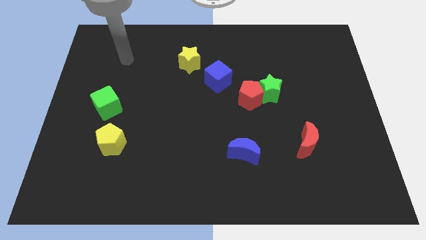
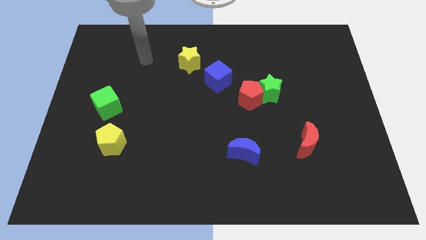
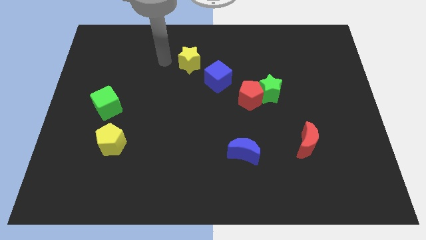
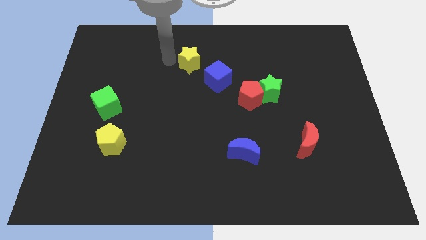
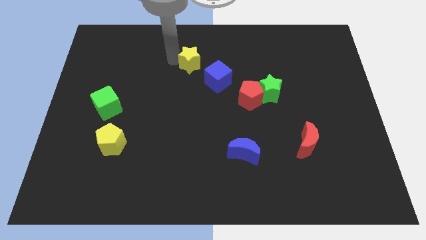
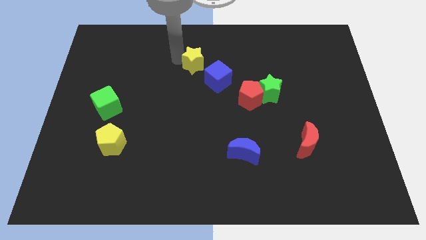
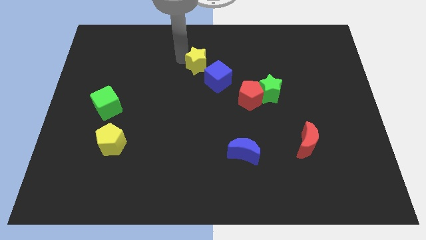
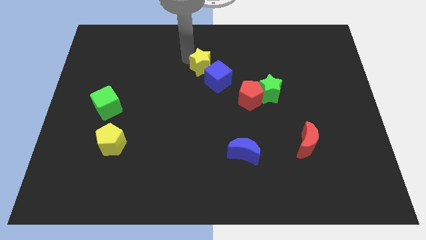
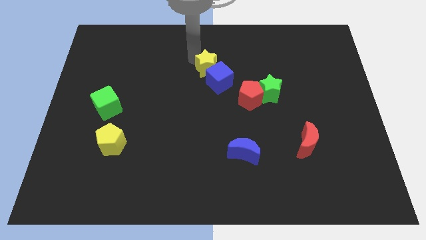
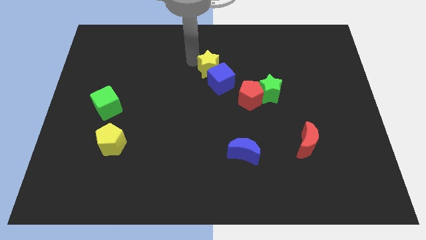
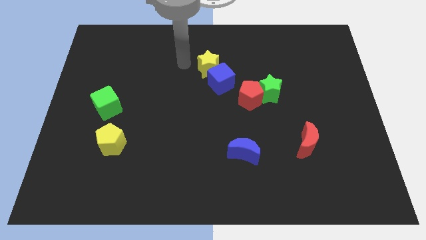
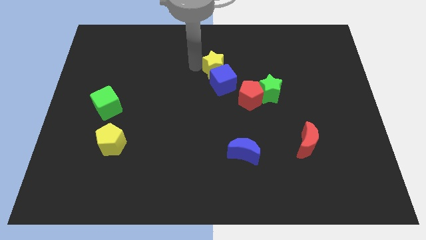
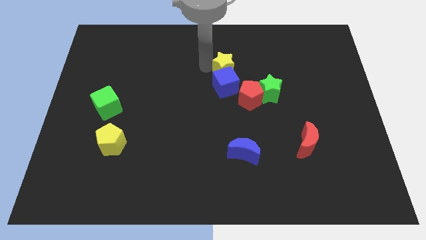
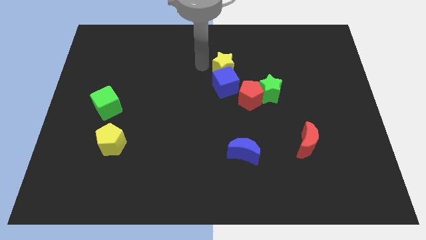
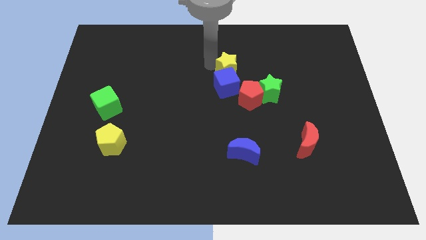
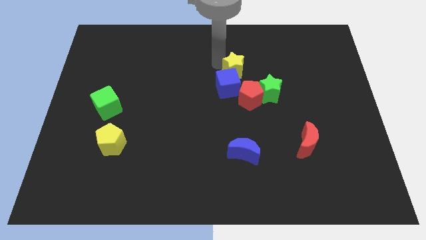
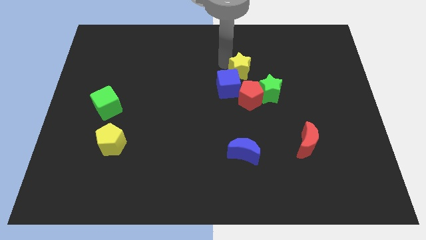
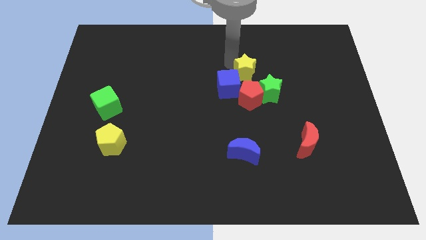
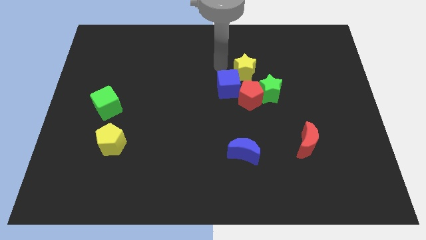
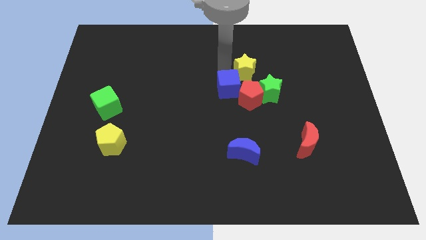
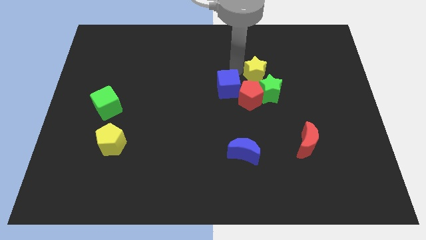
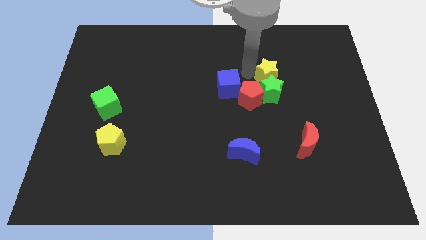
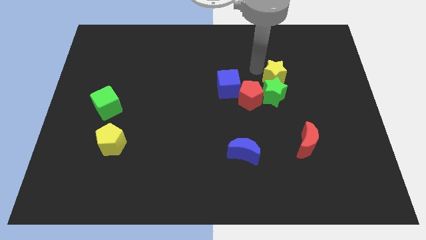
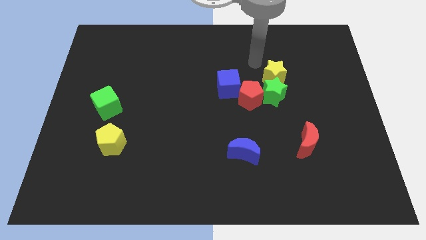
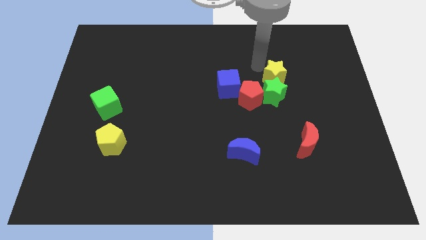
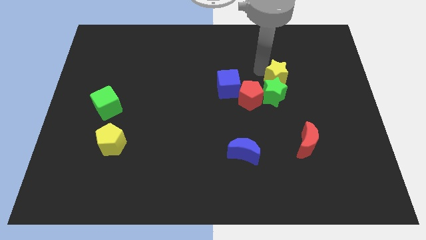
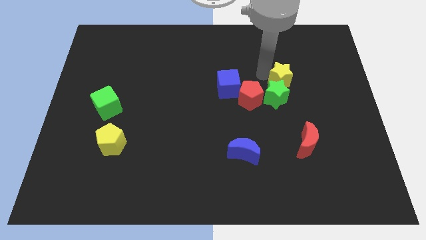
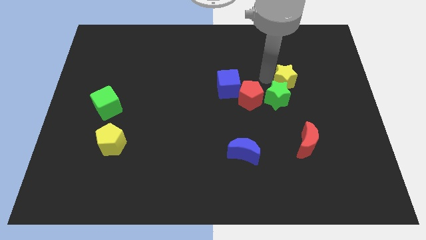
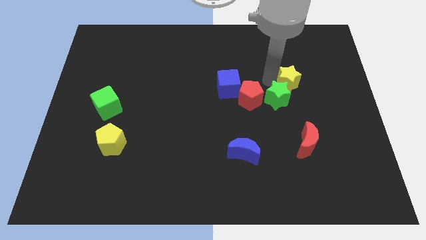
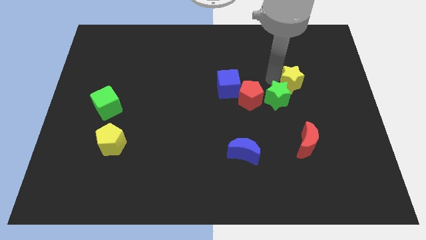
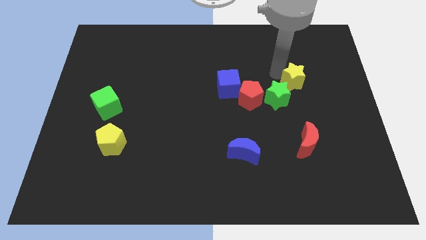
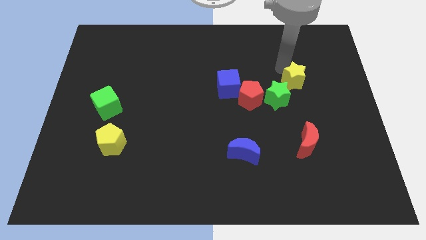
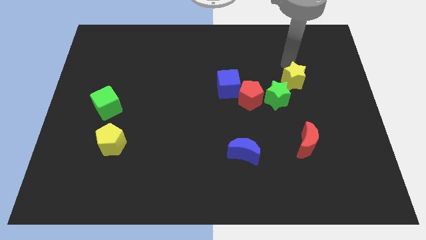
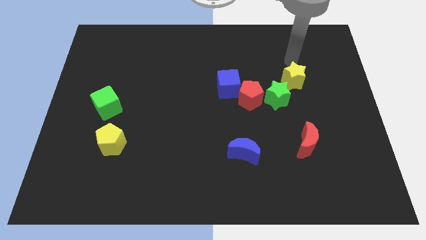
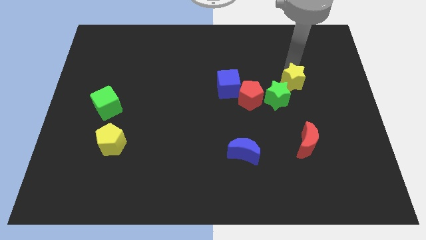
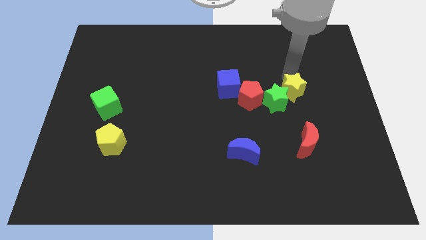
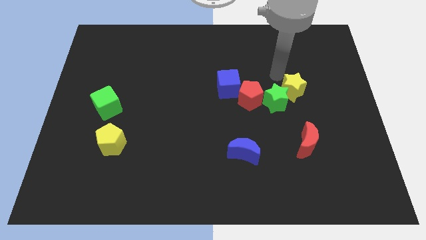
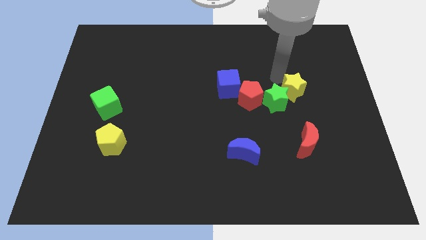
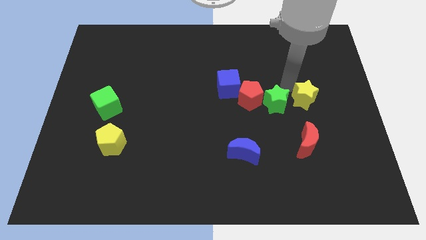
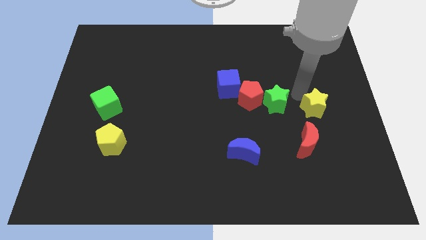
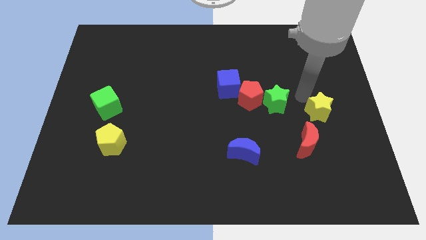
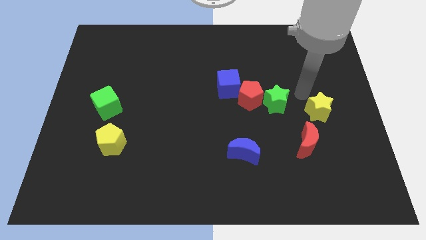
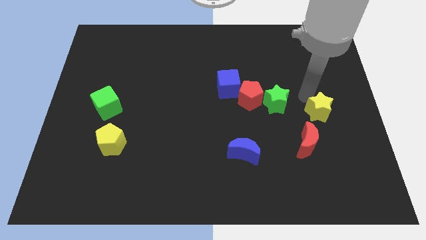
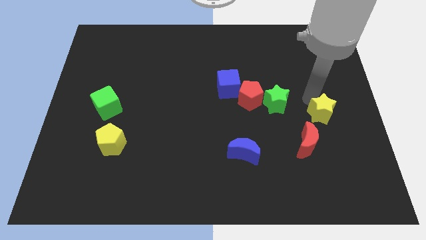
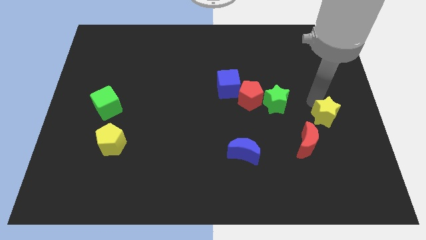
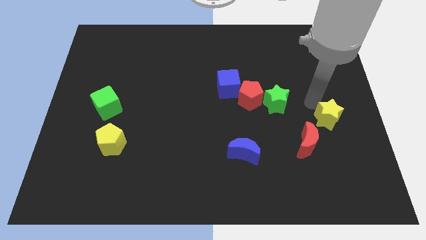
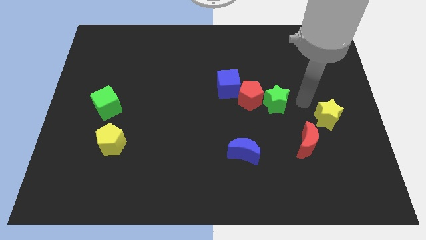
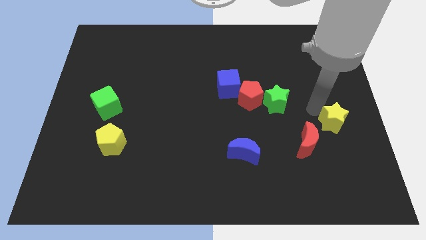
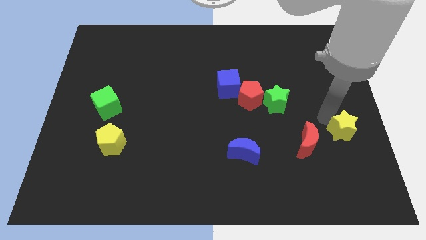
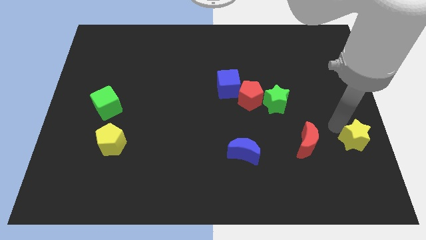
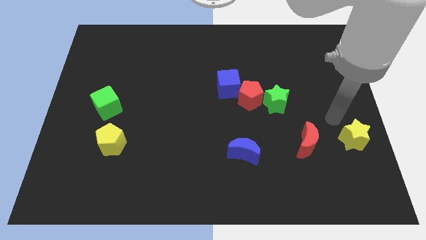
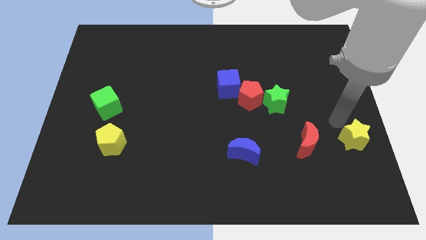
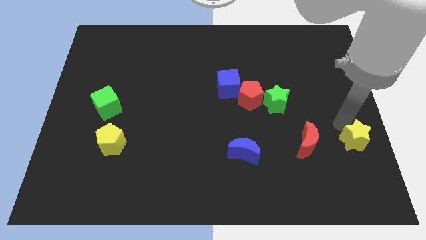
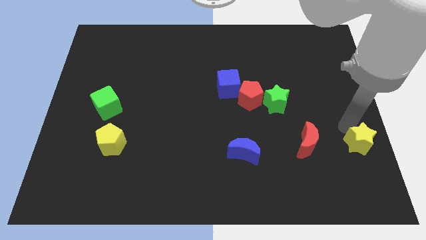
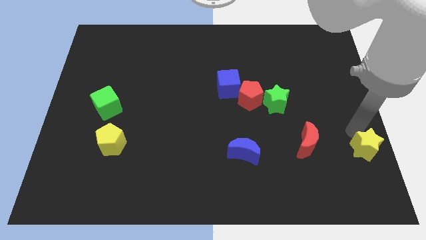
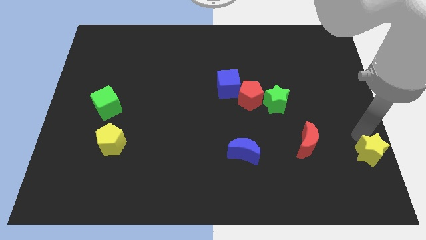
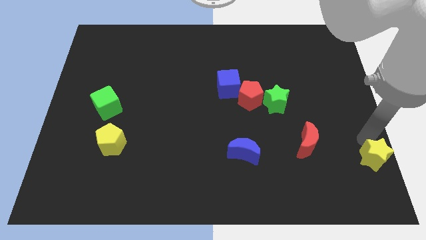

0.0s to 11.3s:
slide the yellow star to the bottom right of the board

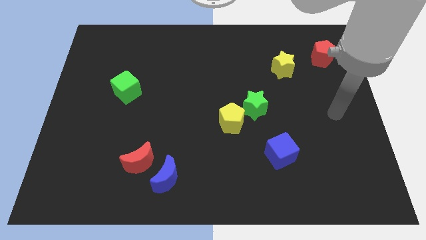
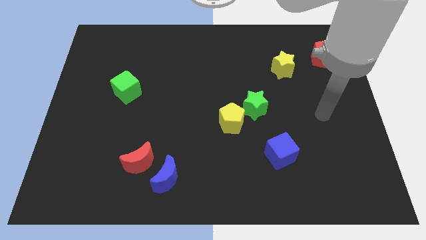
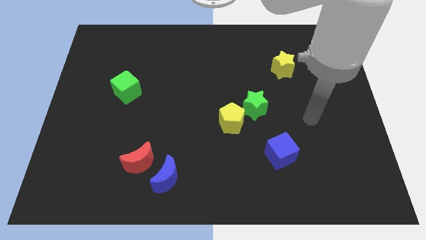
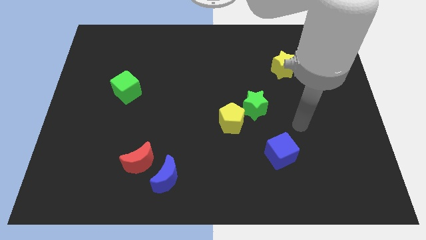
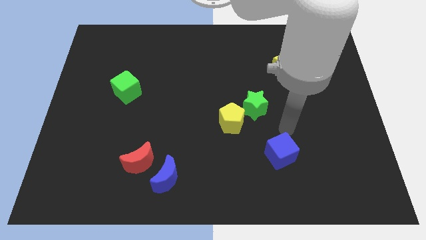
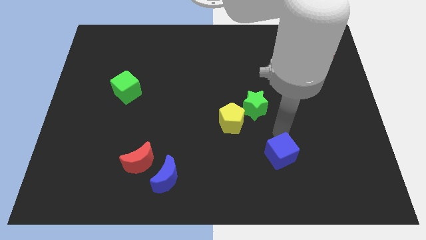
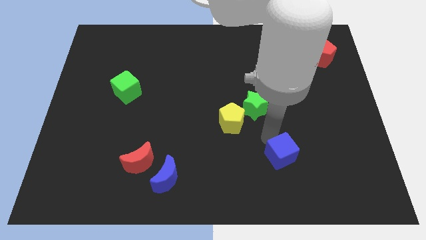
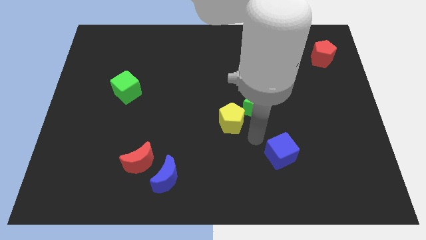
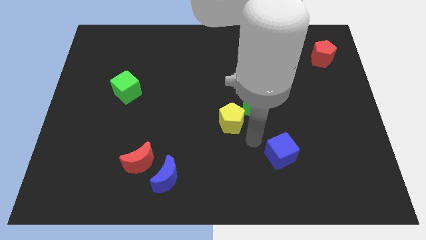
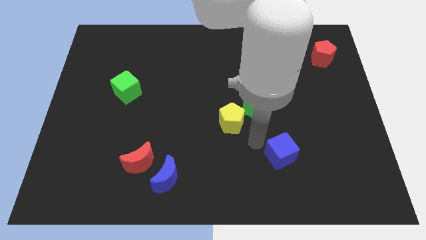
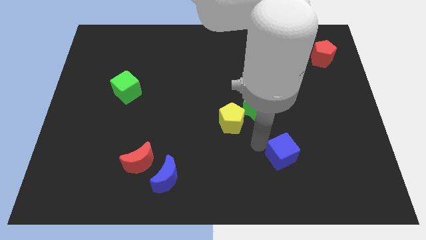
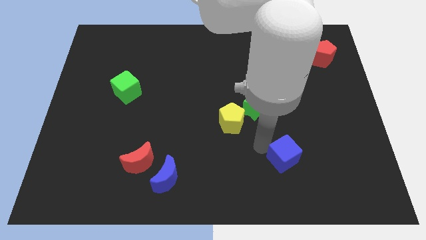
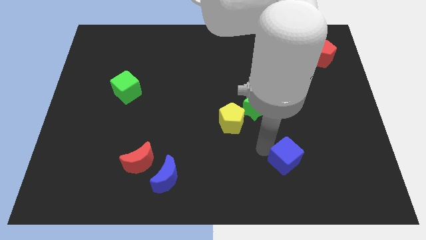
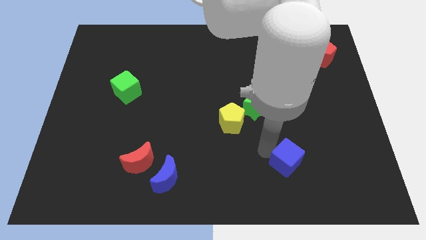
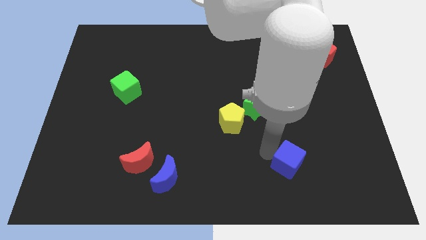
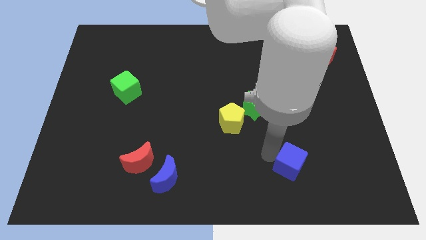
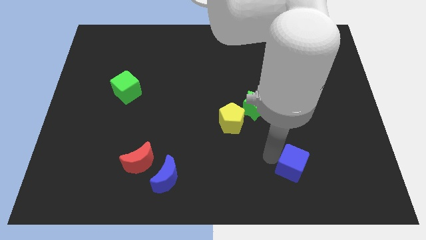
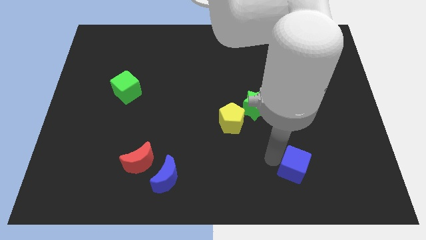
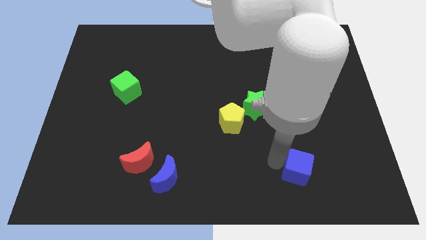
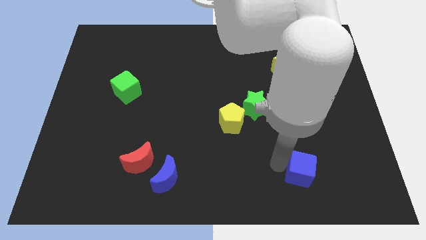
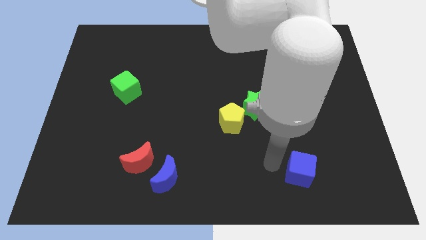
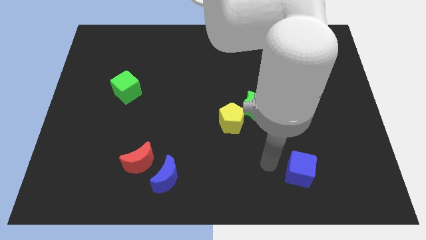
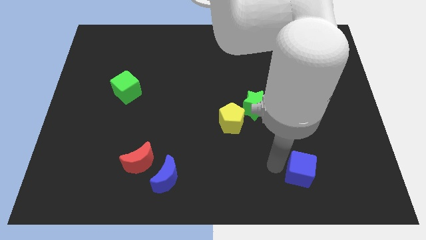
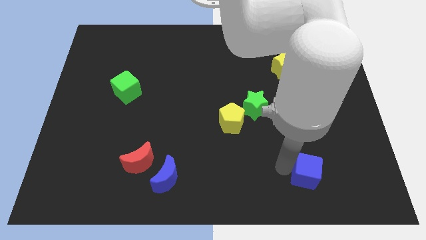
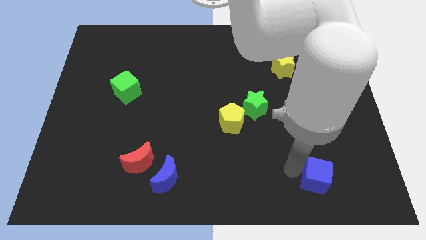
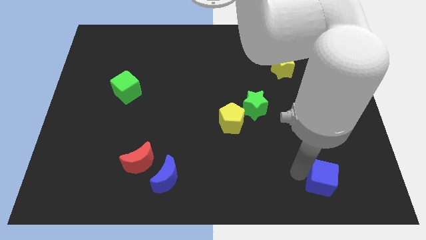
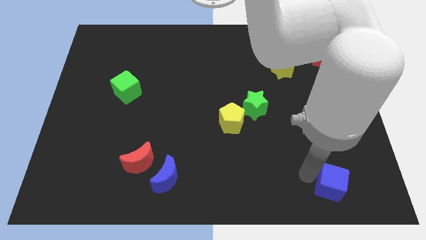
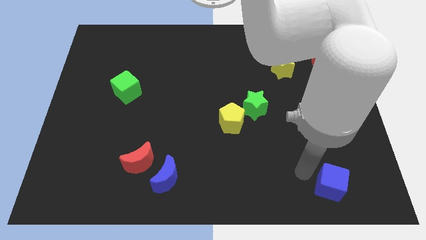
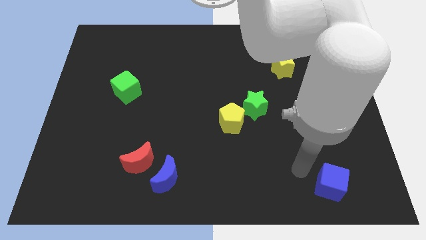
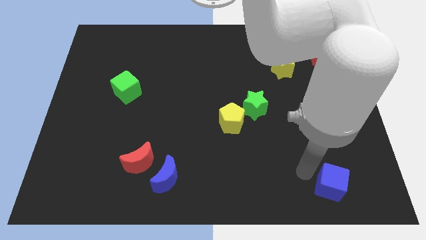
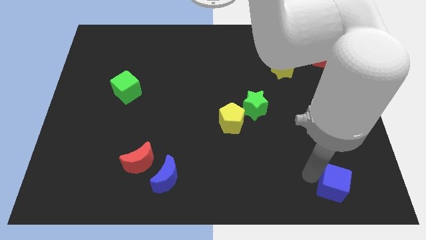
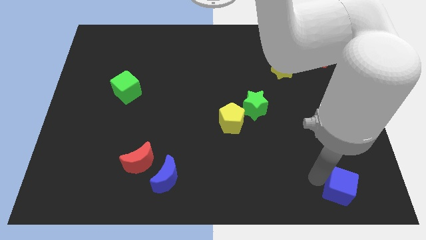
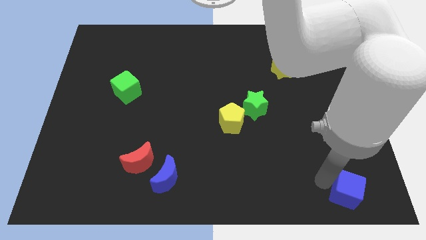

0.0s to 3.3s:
slide the blue cube to the bottom right of the board
